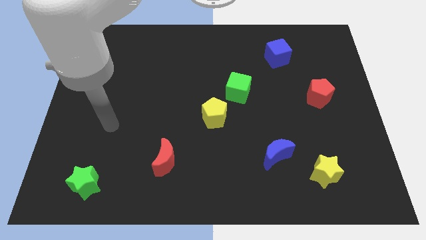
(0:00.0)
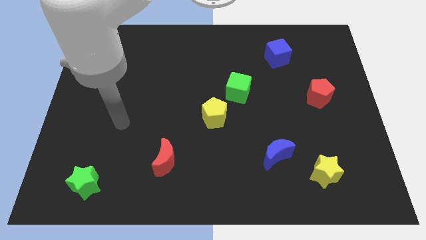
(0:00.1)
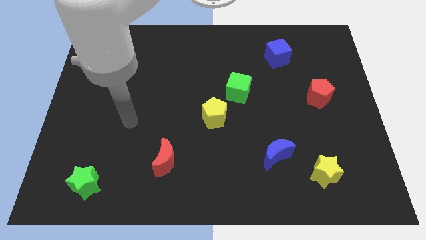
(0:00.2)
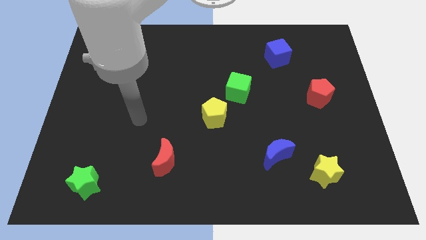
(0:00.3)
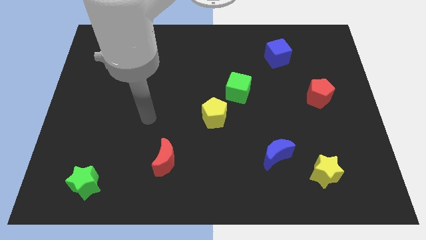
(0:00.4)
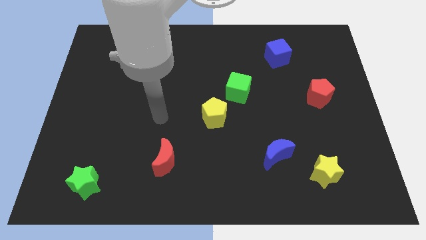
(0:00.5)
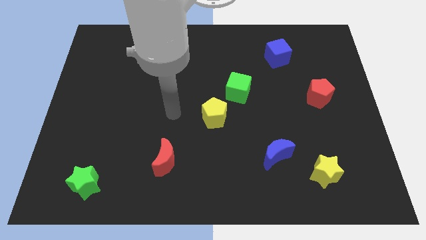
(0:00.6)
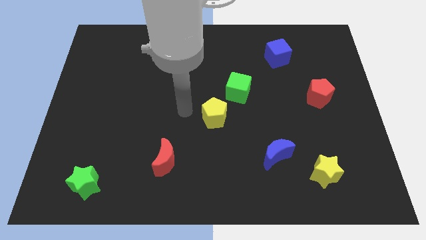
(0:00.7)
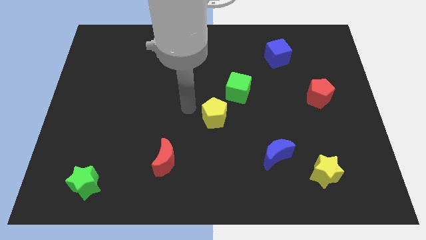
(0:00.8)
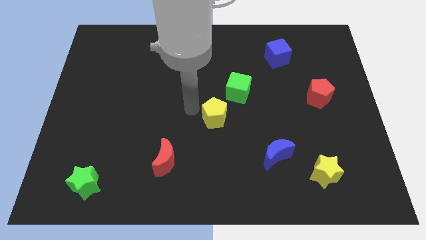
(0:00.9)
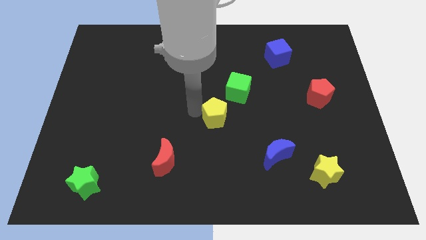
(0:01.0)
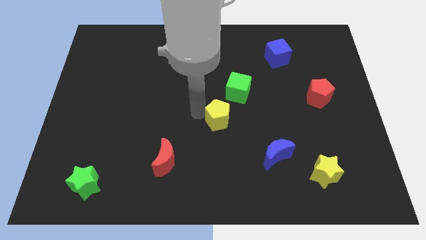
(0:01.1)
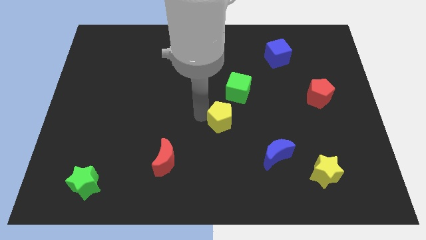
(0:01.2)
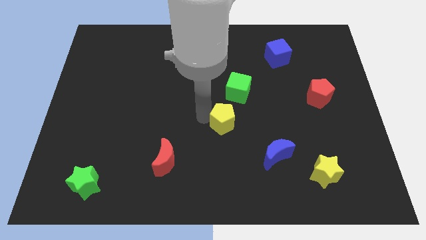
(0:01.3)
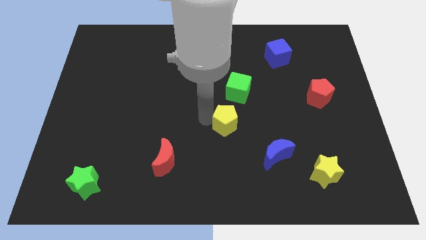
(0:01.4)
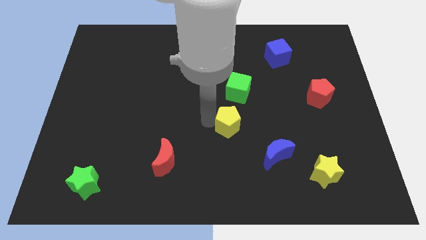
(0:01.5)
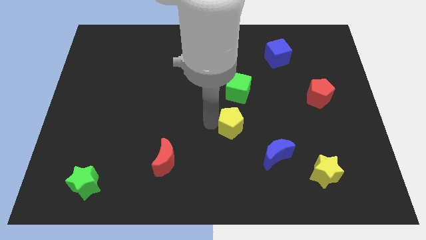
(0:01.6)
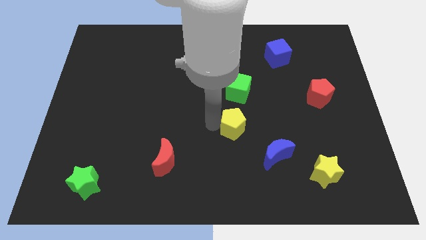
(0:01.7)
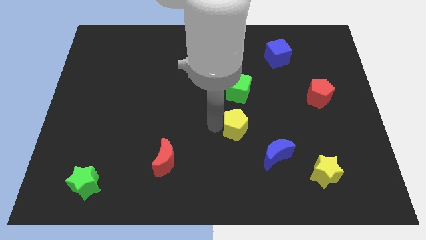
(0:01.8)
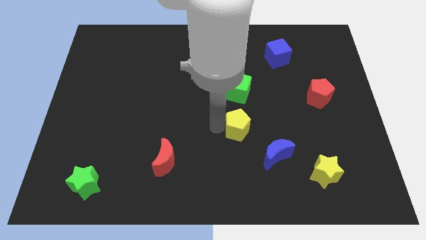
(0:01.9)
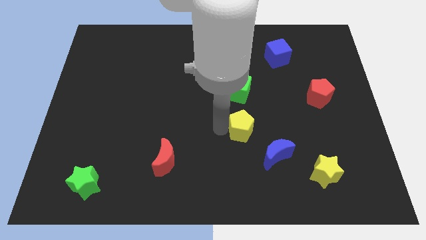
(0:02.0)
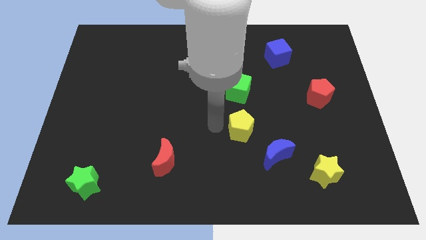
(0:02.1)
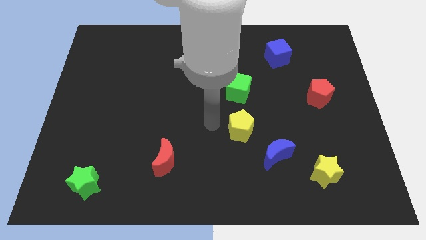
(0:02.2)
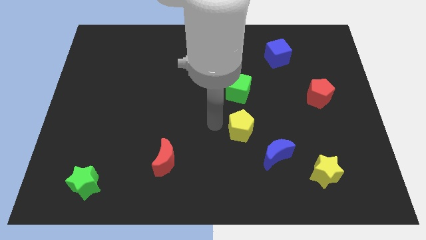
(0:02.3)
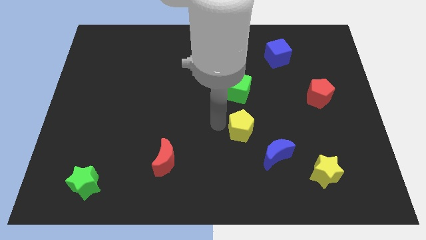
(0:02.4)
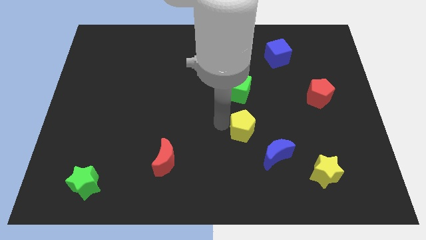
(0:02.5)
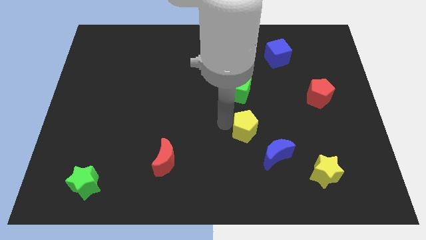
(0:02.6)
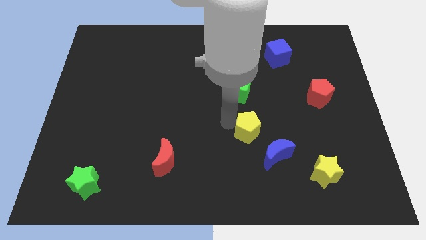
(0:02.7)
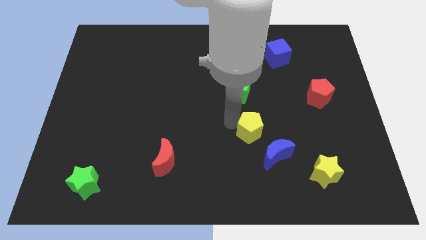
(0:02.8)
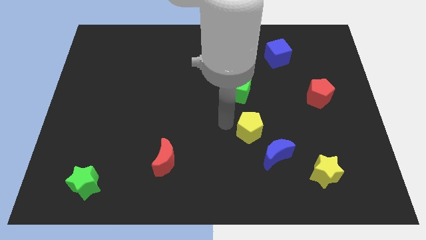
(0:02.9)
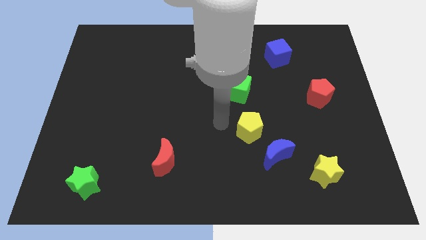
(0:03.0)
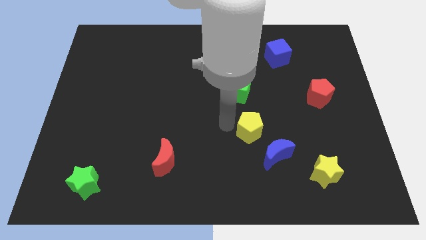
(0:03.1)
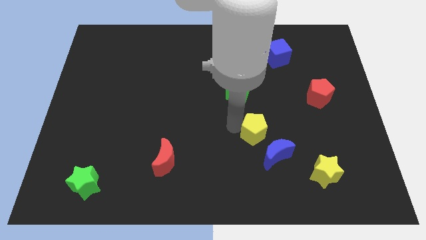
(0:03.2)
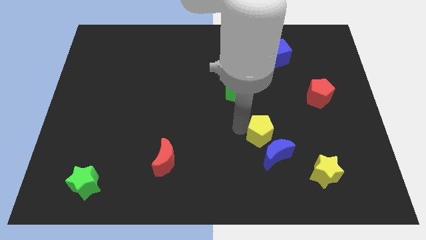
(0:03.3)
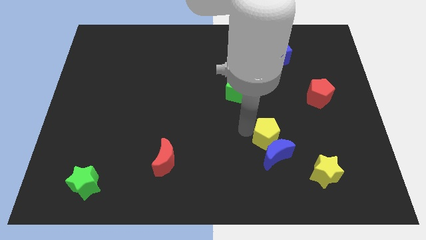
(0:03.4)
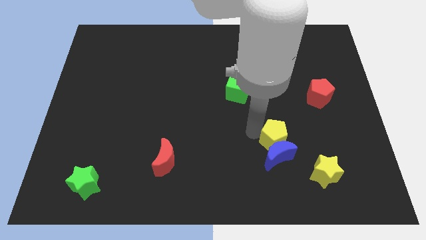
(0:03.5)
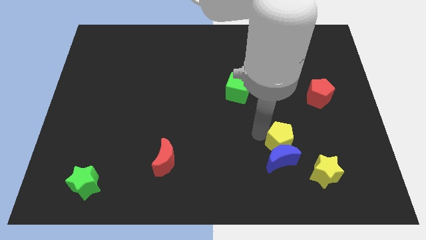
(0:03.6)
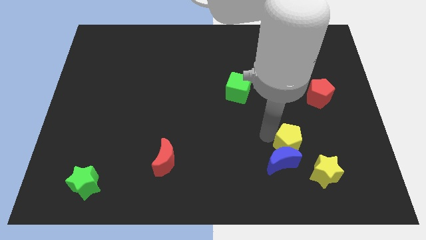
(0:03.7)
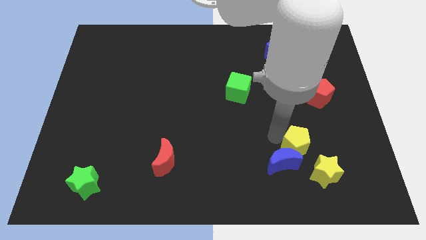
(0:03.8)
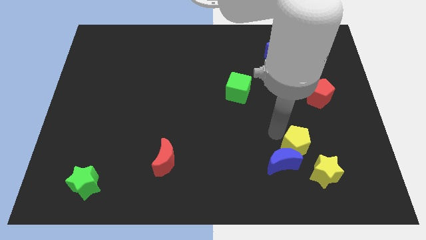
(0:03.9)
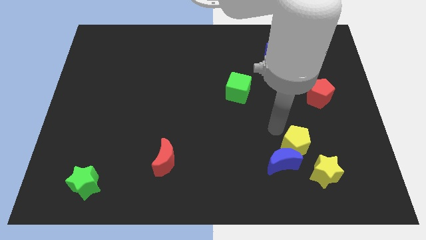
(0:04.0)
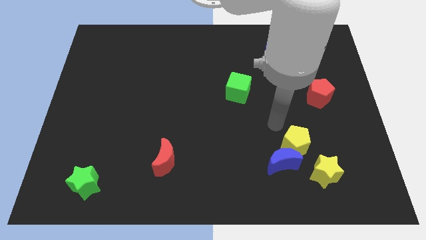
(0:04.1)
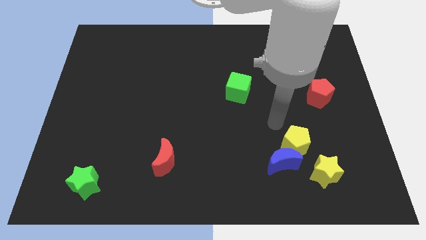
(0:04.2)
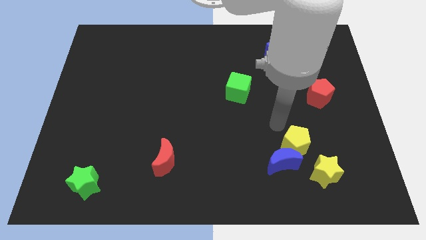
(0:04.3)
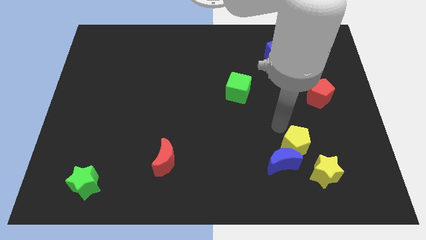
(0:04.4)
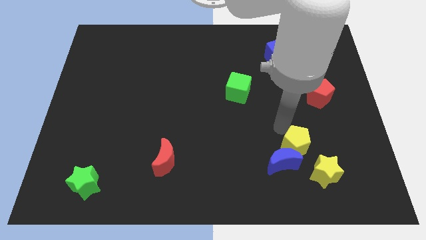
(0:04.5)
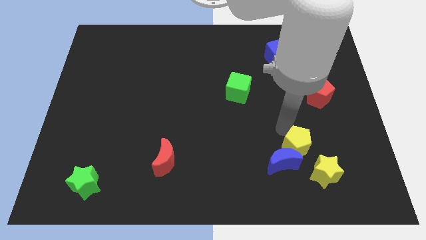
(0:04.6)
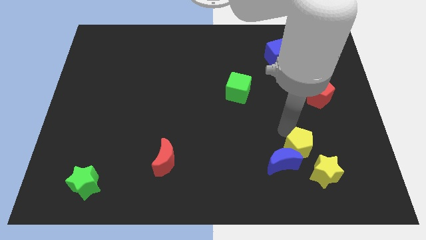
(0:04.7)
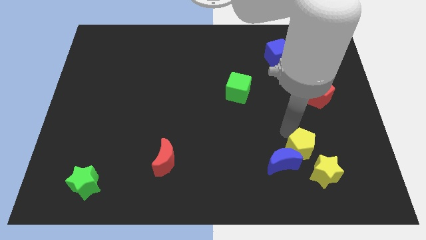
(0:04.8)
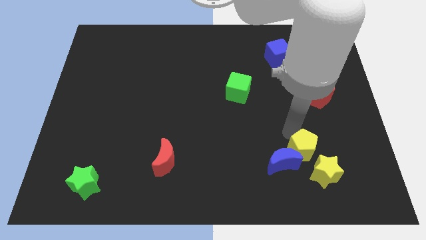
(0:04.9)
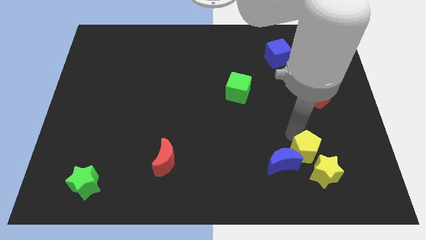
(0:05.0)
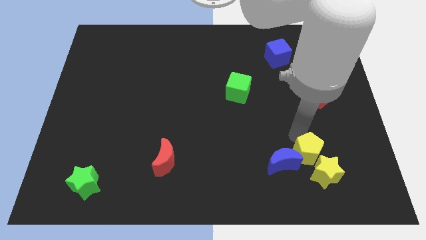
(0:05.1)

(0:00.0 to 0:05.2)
put the yellow pentagon to the yellow star

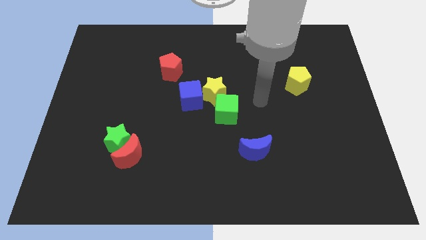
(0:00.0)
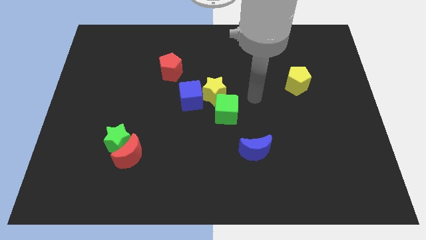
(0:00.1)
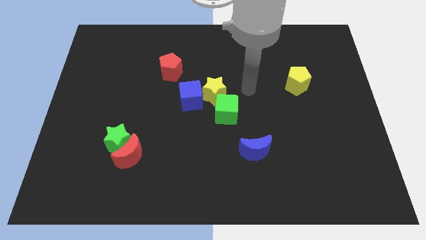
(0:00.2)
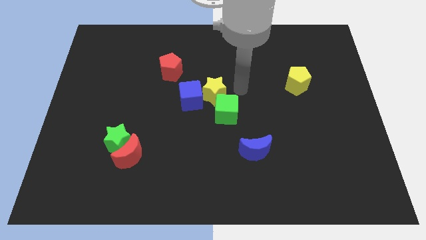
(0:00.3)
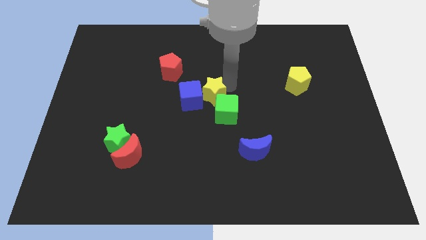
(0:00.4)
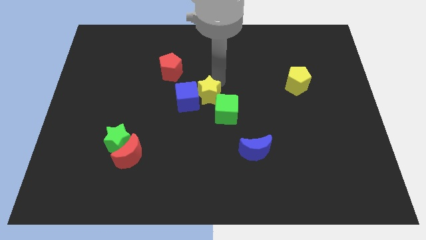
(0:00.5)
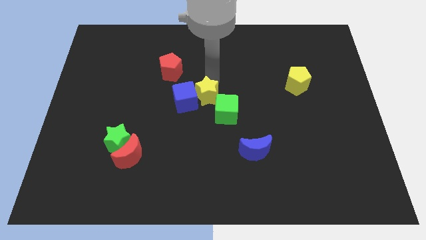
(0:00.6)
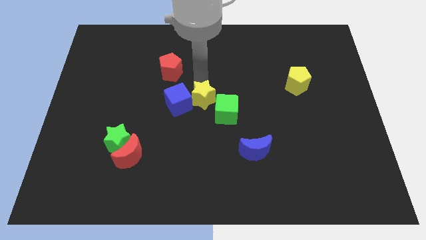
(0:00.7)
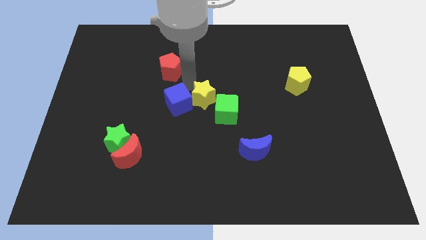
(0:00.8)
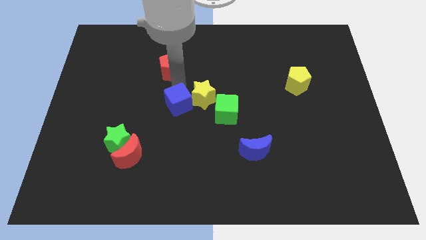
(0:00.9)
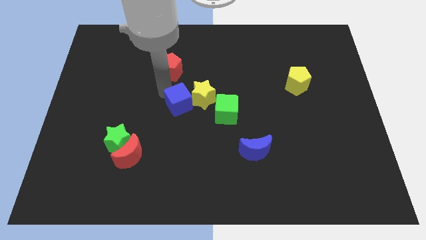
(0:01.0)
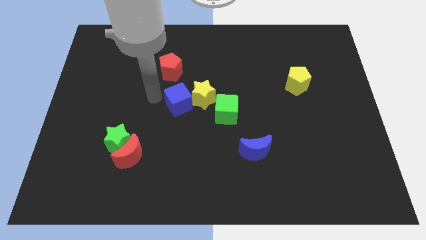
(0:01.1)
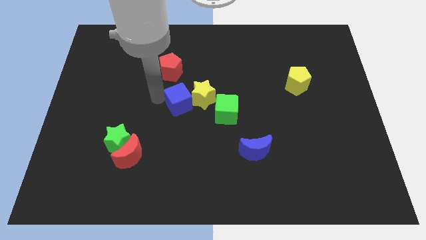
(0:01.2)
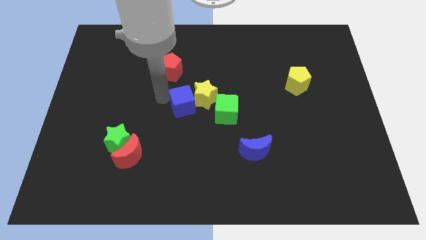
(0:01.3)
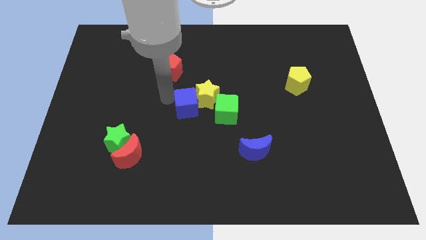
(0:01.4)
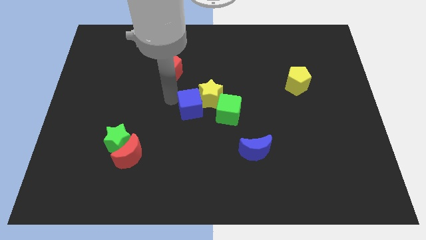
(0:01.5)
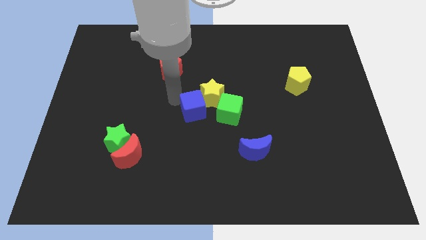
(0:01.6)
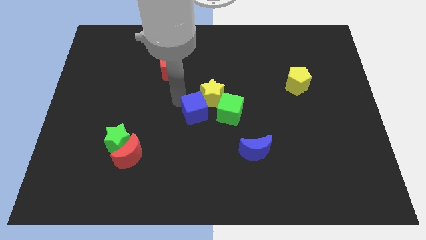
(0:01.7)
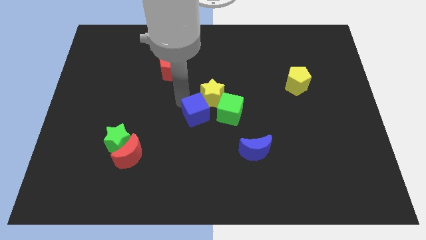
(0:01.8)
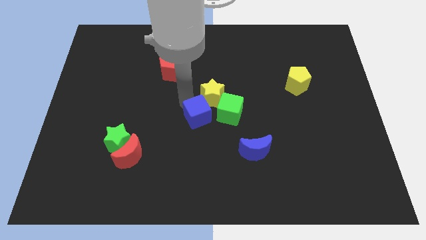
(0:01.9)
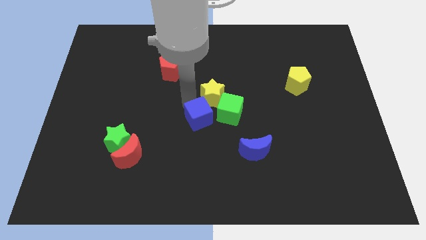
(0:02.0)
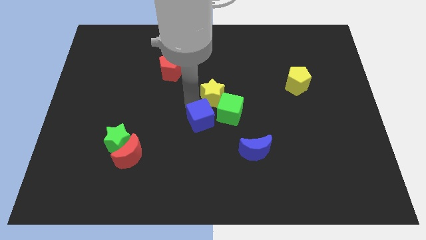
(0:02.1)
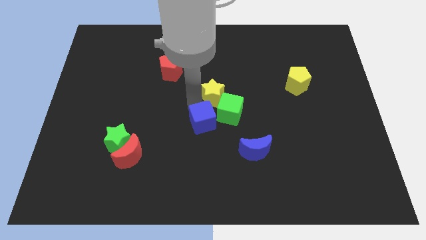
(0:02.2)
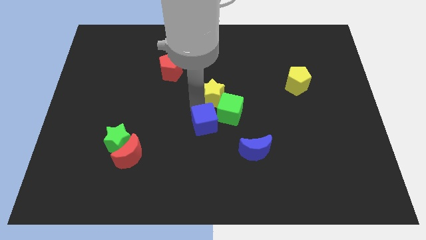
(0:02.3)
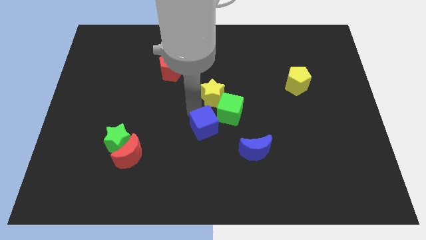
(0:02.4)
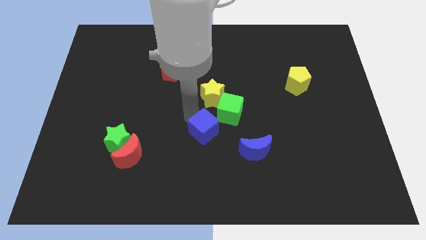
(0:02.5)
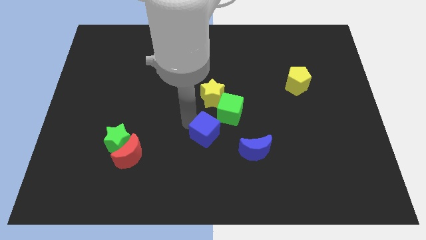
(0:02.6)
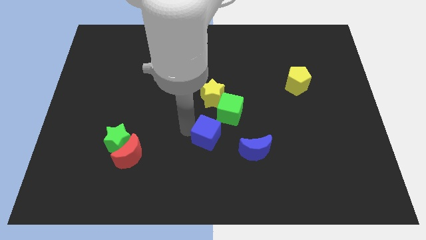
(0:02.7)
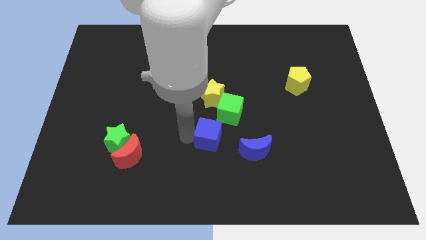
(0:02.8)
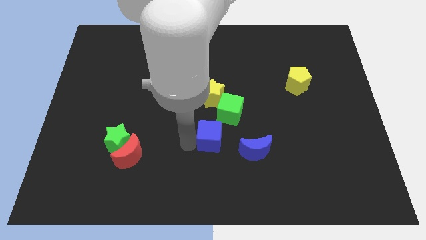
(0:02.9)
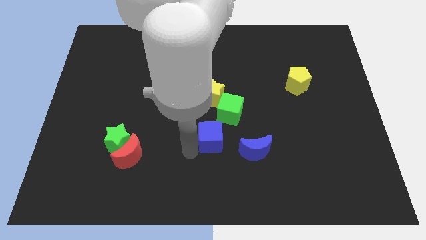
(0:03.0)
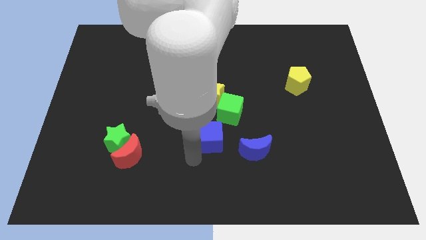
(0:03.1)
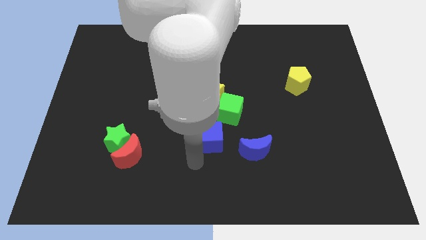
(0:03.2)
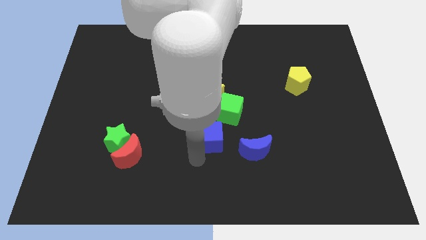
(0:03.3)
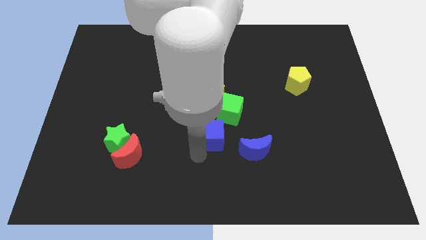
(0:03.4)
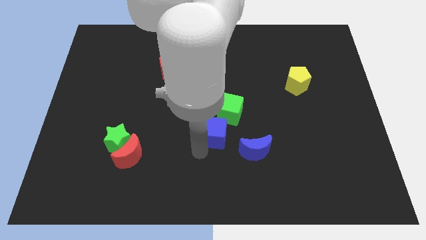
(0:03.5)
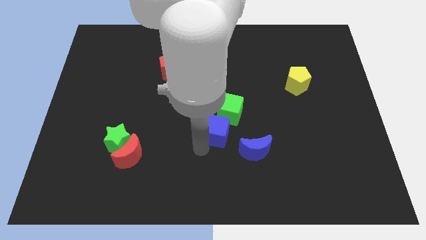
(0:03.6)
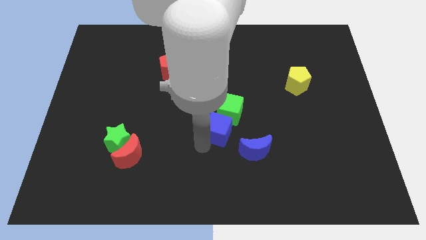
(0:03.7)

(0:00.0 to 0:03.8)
put the blue cube close to the green cube
